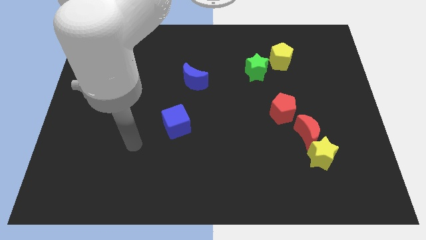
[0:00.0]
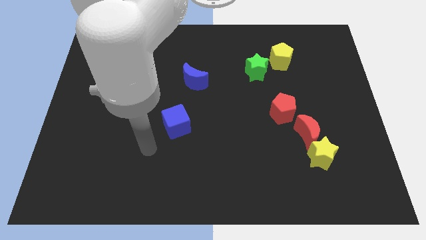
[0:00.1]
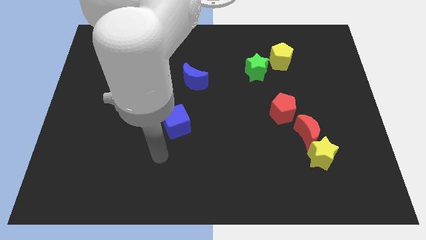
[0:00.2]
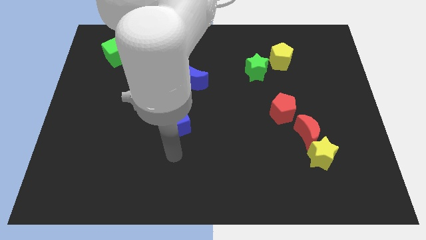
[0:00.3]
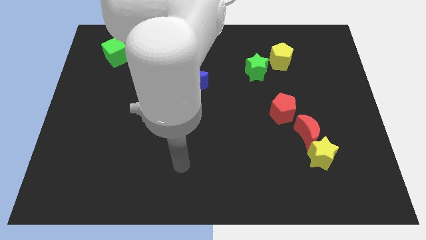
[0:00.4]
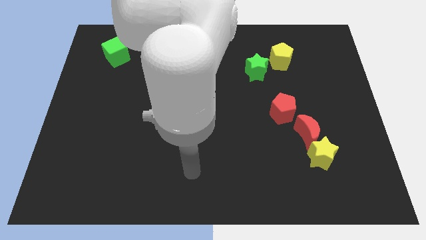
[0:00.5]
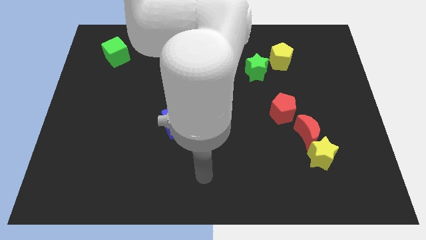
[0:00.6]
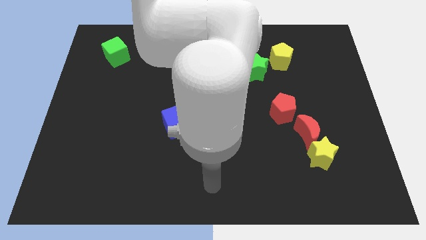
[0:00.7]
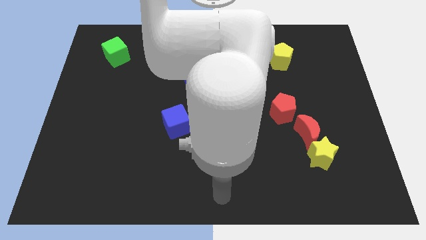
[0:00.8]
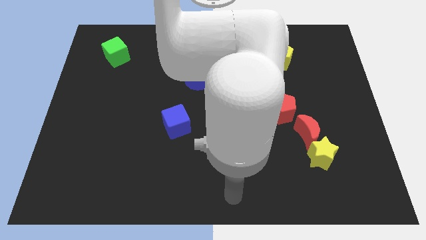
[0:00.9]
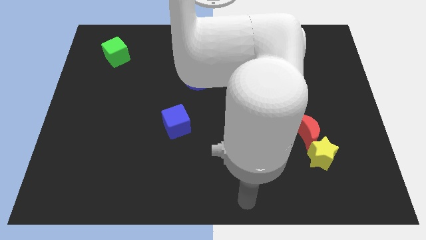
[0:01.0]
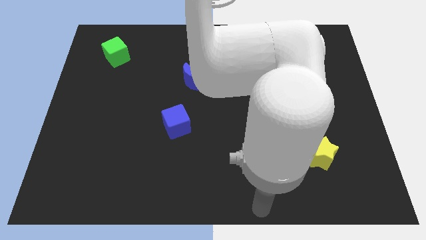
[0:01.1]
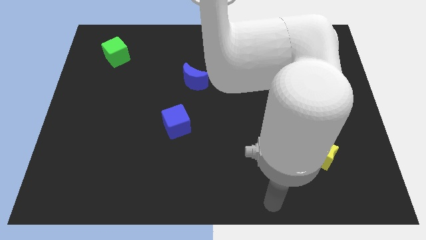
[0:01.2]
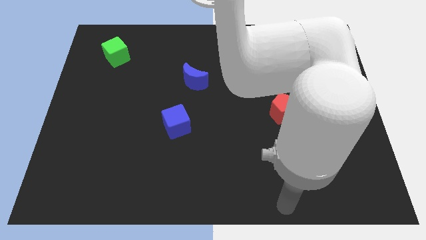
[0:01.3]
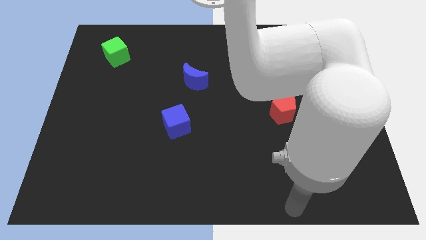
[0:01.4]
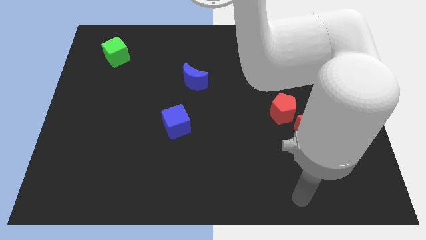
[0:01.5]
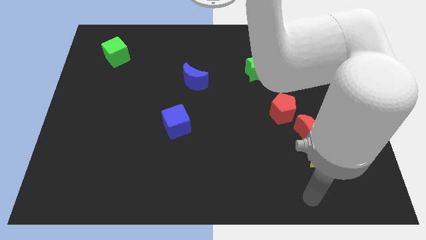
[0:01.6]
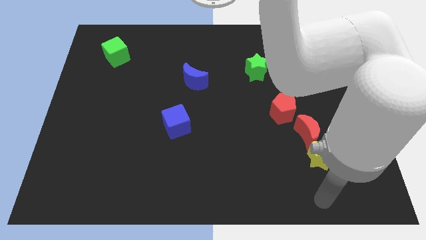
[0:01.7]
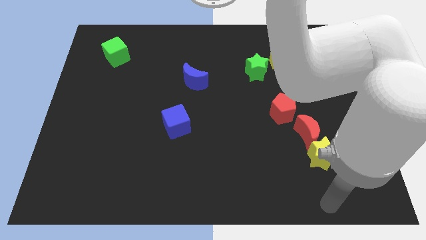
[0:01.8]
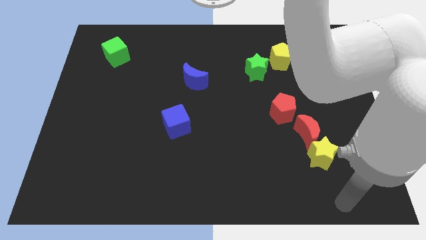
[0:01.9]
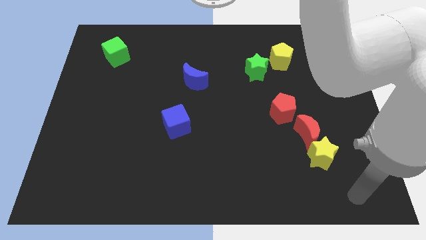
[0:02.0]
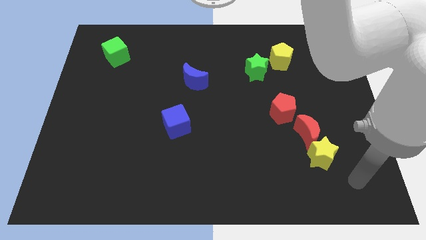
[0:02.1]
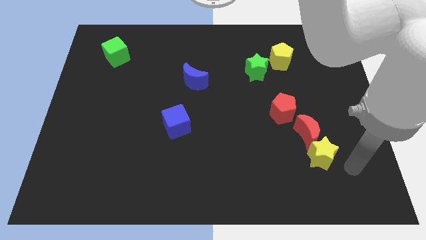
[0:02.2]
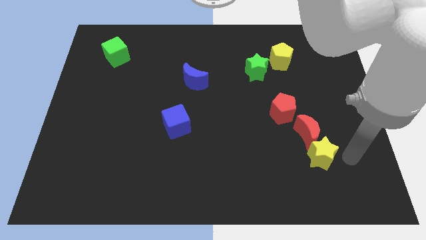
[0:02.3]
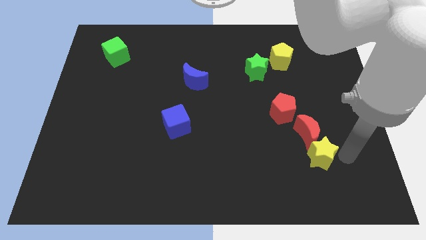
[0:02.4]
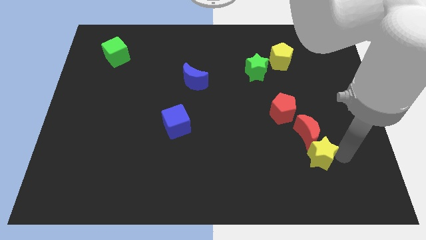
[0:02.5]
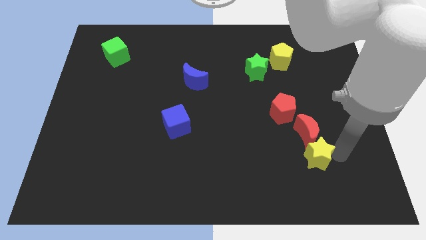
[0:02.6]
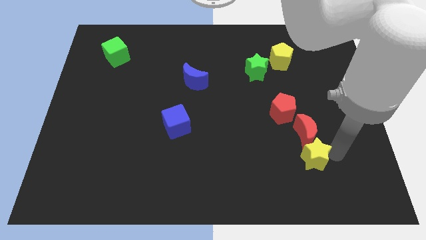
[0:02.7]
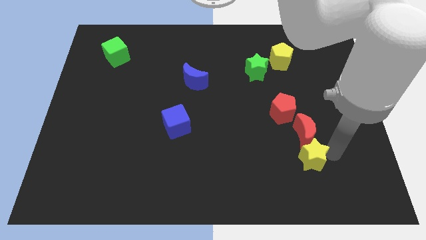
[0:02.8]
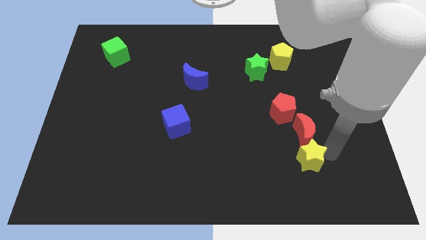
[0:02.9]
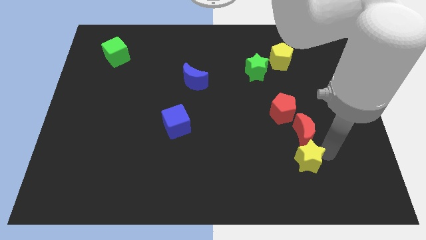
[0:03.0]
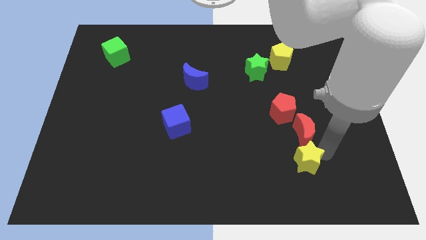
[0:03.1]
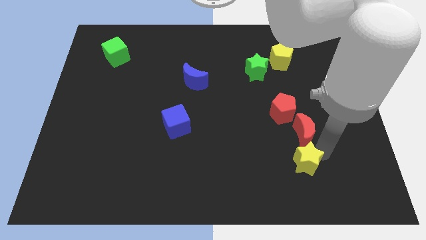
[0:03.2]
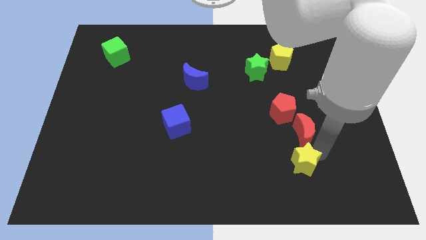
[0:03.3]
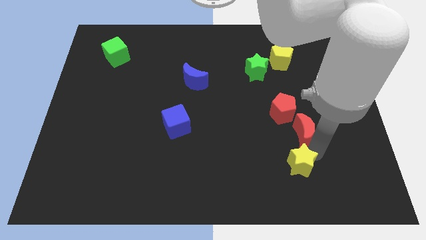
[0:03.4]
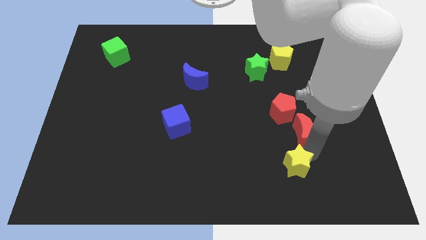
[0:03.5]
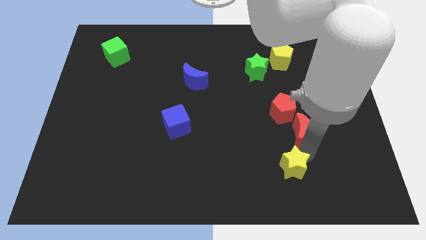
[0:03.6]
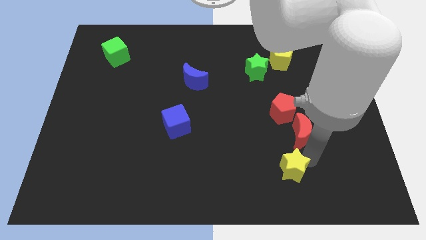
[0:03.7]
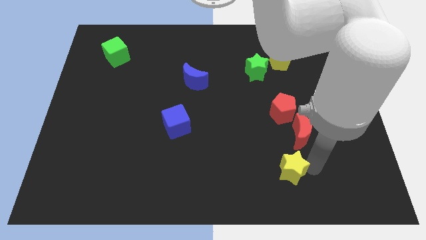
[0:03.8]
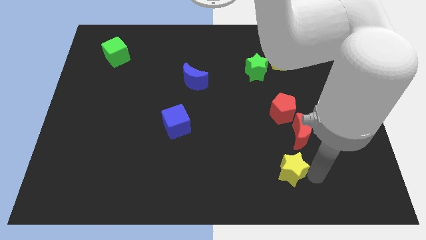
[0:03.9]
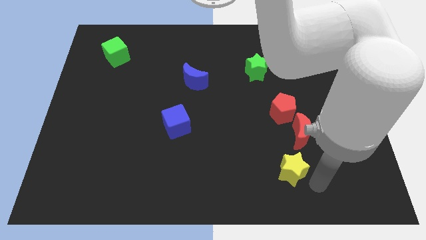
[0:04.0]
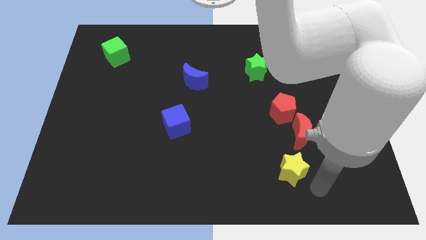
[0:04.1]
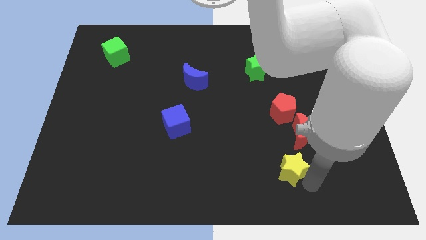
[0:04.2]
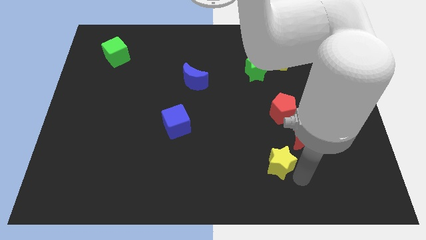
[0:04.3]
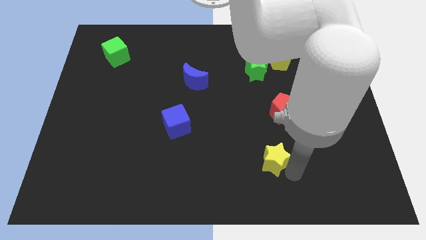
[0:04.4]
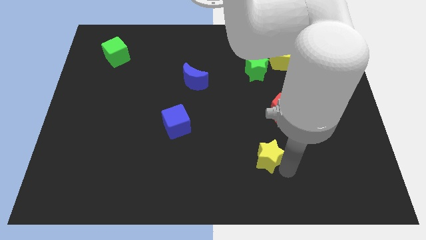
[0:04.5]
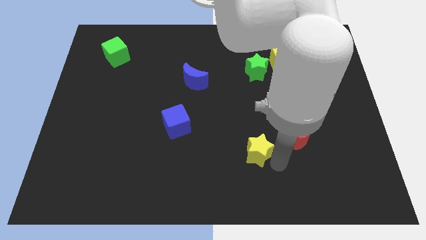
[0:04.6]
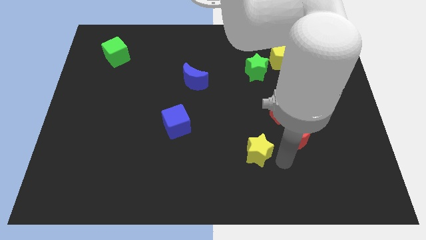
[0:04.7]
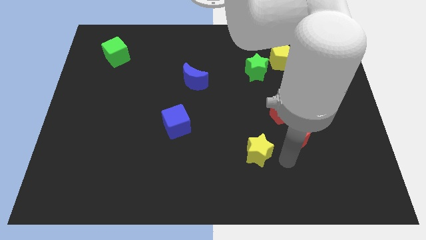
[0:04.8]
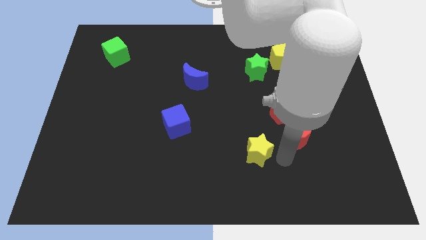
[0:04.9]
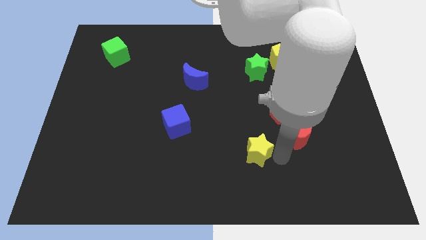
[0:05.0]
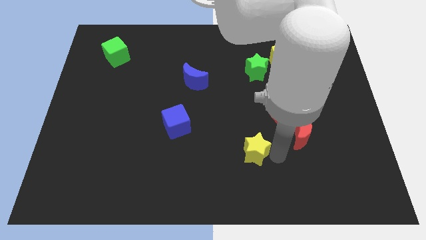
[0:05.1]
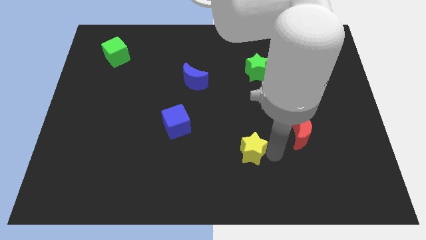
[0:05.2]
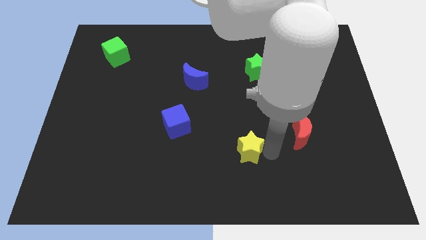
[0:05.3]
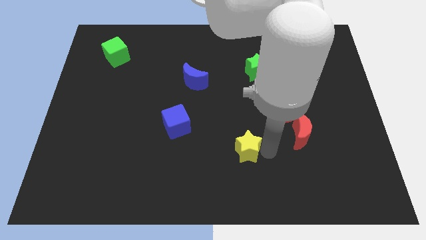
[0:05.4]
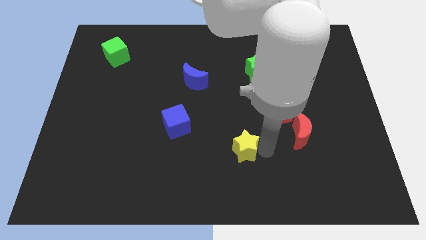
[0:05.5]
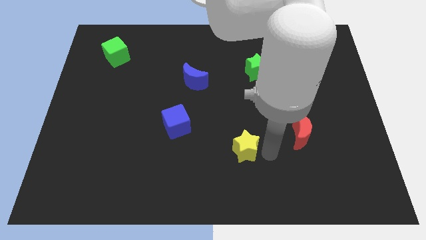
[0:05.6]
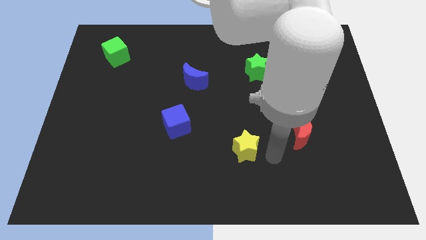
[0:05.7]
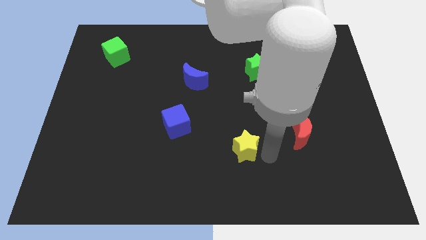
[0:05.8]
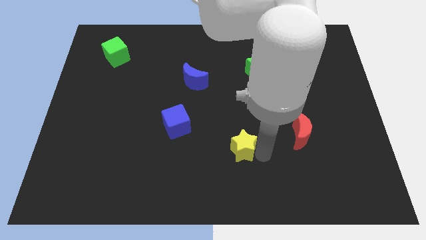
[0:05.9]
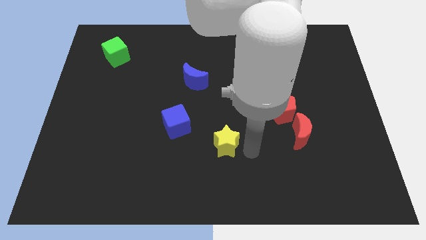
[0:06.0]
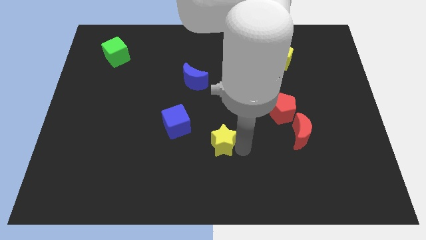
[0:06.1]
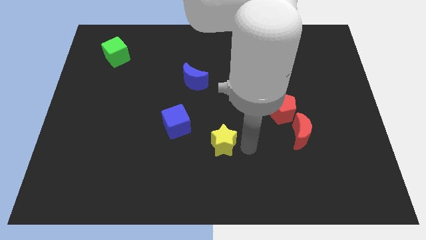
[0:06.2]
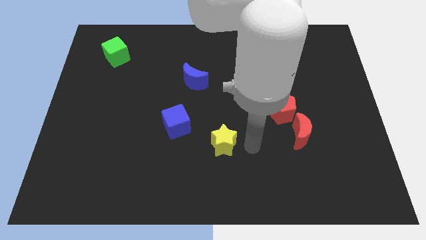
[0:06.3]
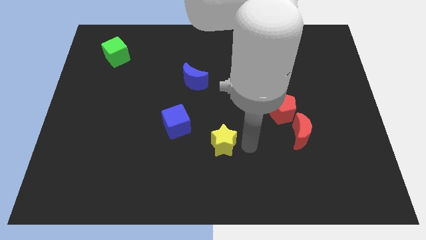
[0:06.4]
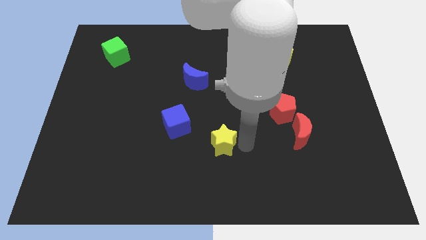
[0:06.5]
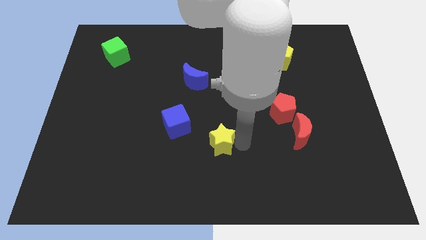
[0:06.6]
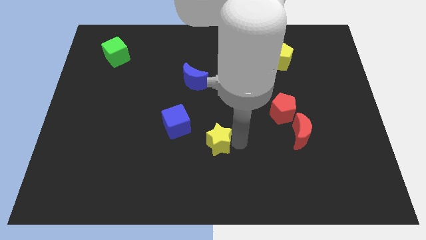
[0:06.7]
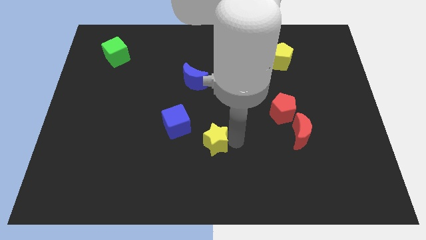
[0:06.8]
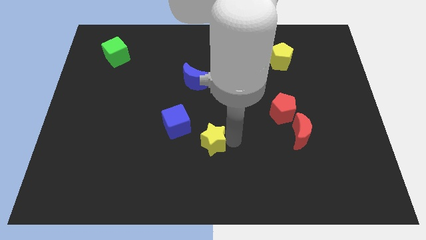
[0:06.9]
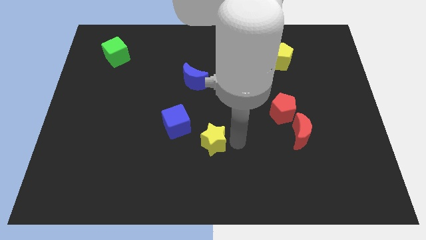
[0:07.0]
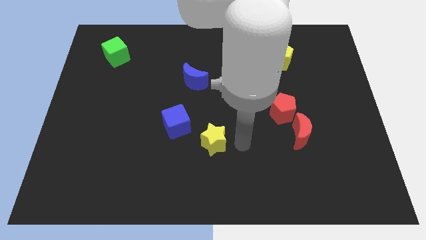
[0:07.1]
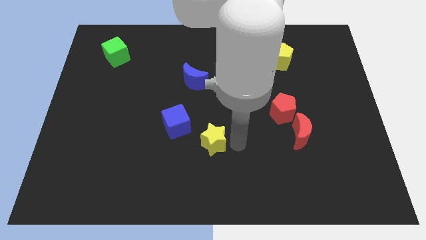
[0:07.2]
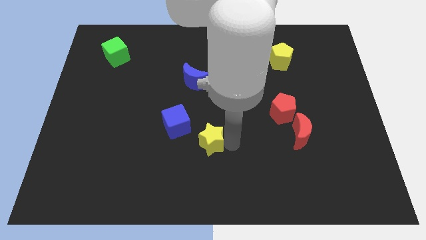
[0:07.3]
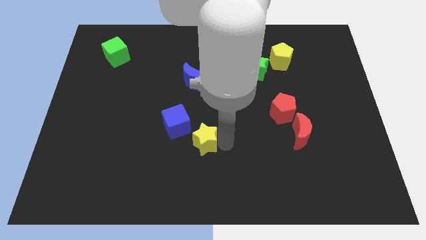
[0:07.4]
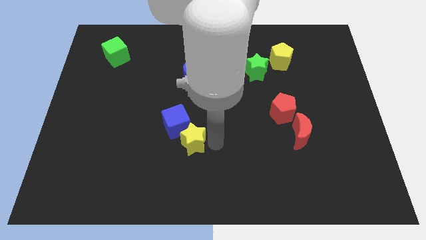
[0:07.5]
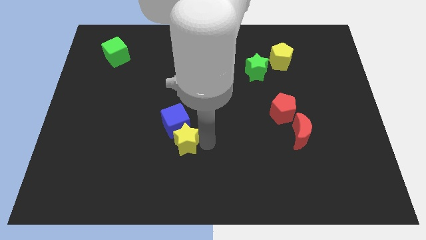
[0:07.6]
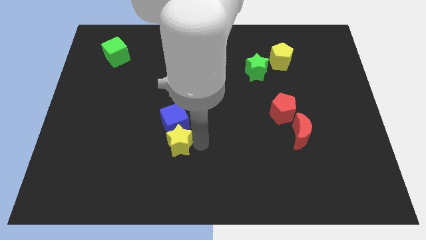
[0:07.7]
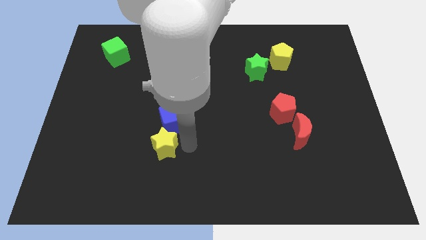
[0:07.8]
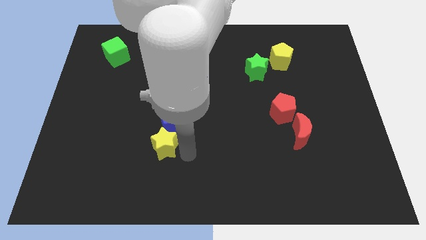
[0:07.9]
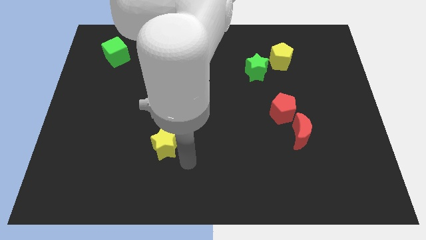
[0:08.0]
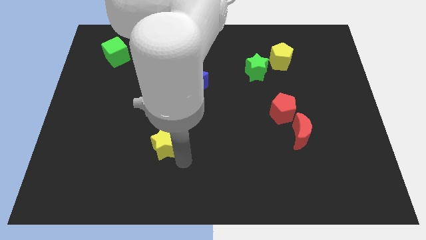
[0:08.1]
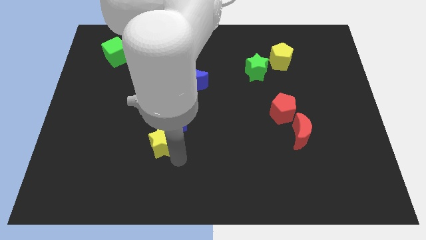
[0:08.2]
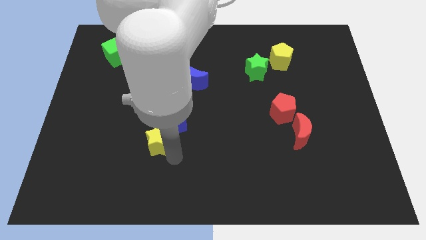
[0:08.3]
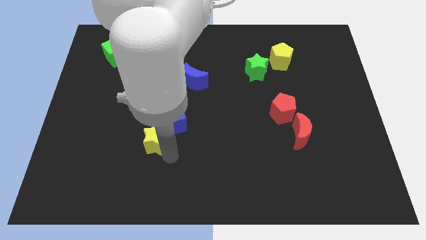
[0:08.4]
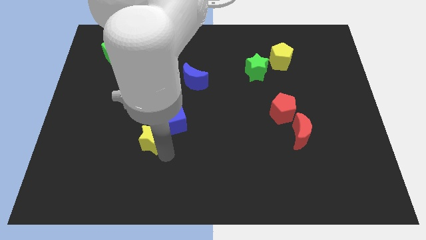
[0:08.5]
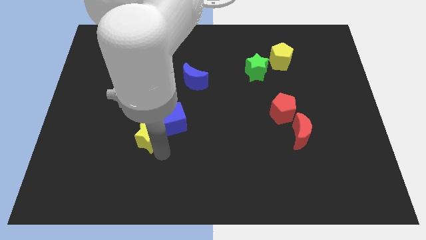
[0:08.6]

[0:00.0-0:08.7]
slide the yellow star to the left of the blue cube

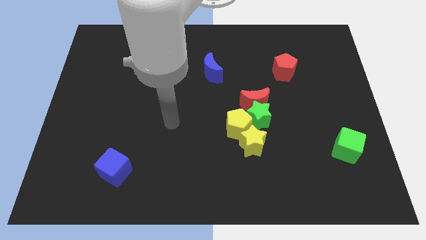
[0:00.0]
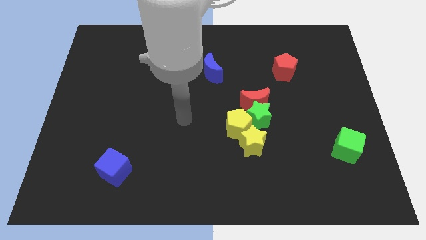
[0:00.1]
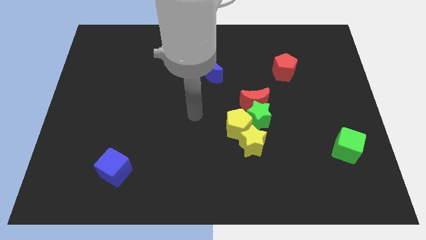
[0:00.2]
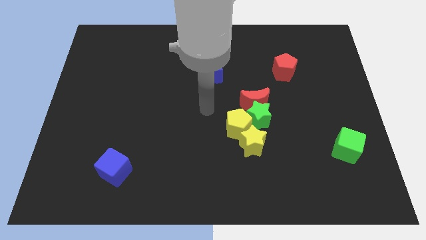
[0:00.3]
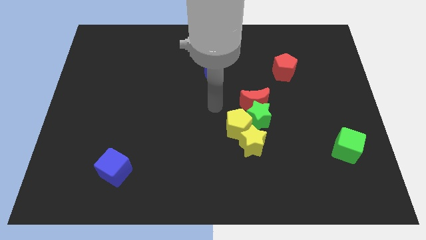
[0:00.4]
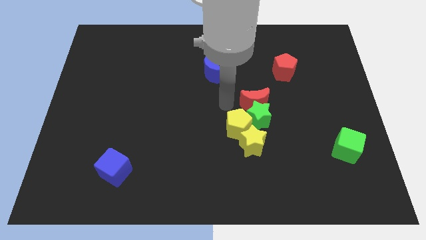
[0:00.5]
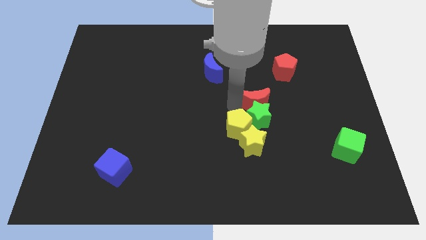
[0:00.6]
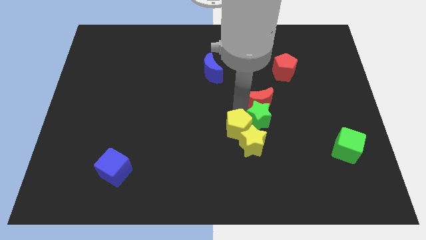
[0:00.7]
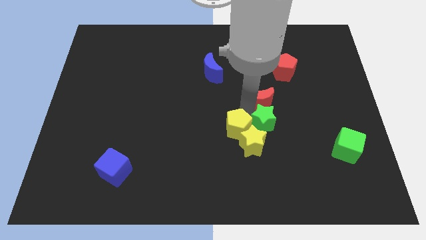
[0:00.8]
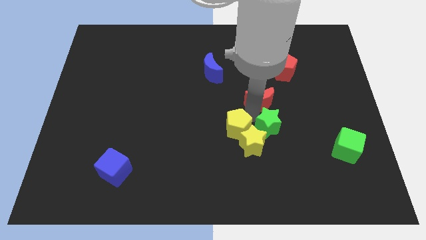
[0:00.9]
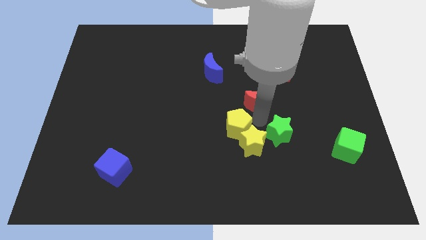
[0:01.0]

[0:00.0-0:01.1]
put the green star right of the yellow star
